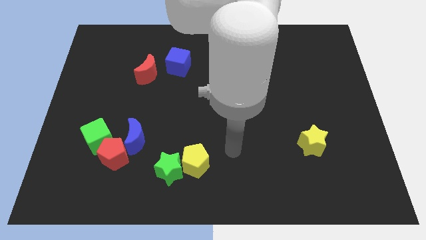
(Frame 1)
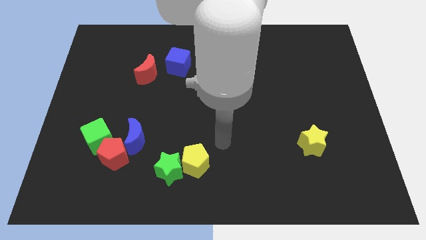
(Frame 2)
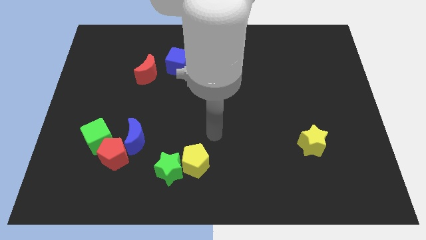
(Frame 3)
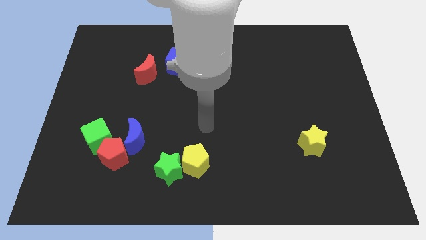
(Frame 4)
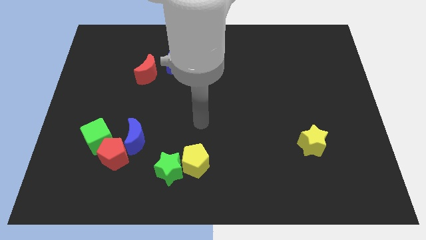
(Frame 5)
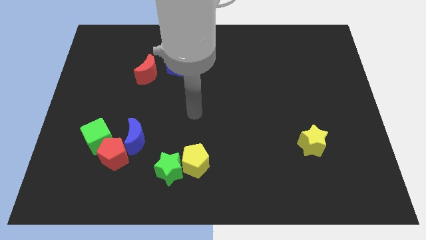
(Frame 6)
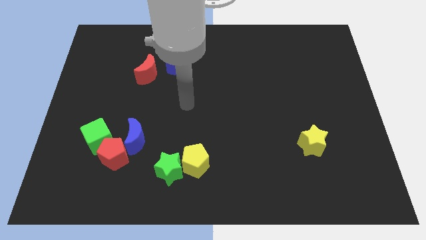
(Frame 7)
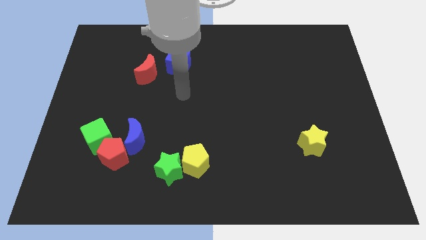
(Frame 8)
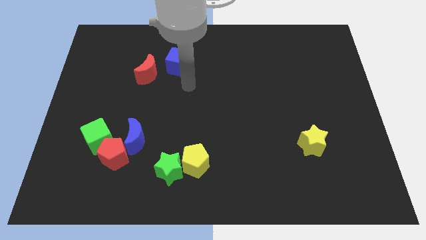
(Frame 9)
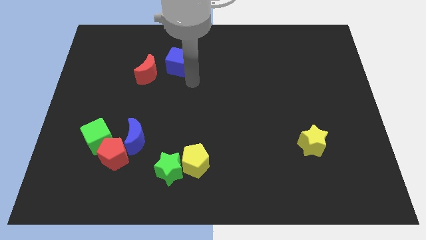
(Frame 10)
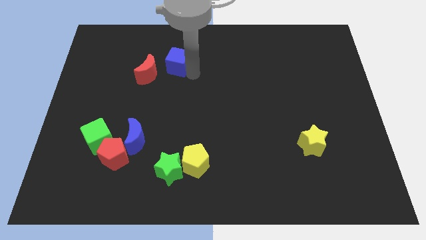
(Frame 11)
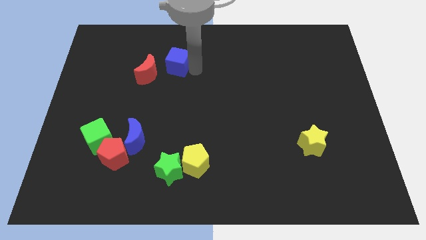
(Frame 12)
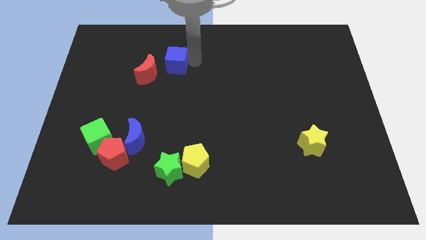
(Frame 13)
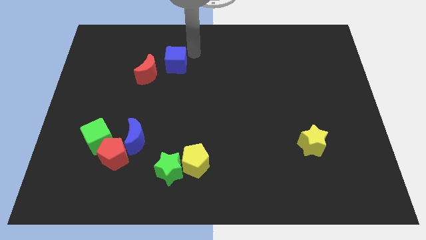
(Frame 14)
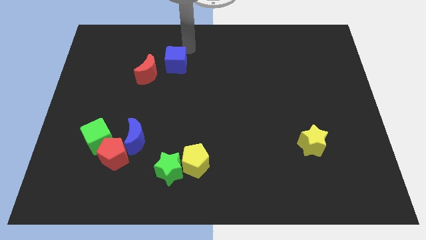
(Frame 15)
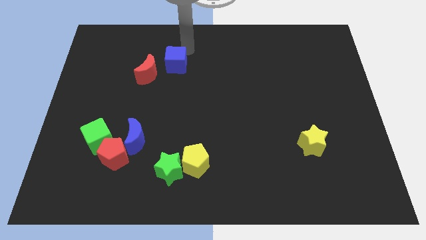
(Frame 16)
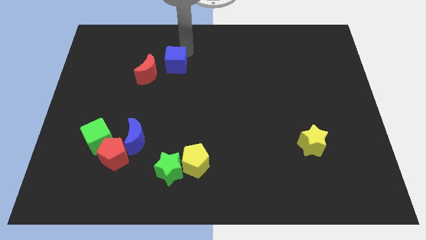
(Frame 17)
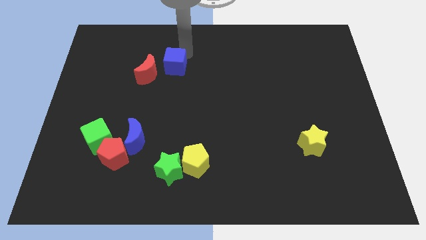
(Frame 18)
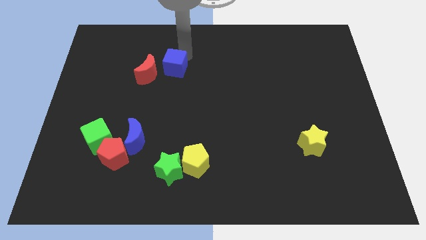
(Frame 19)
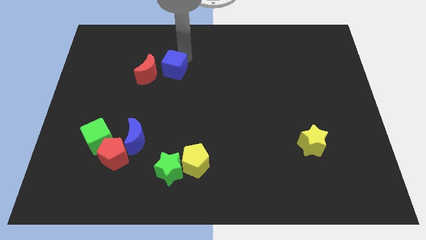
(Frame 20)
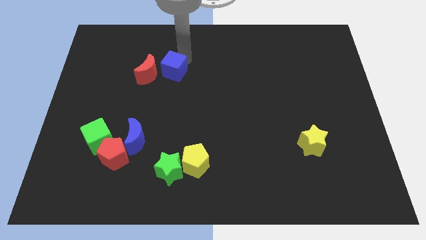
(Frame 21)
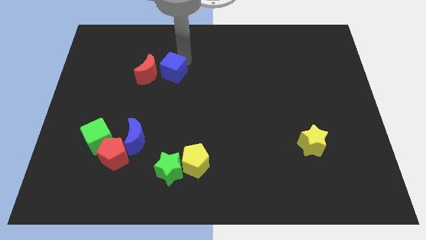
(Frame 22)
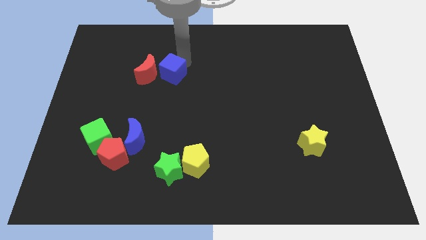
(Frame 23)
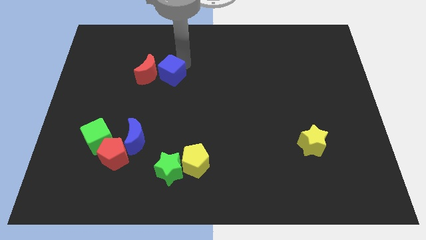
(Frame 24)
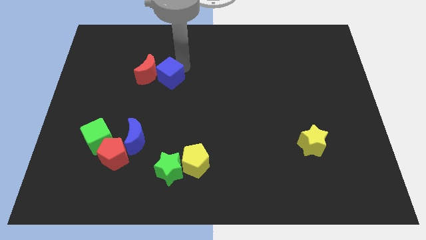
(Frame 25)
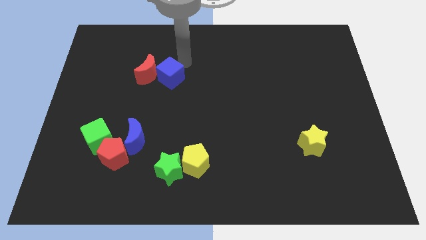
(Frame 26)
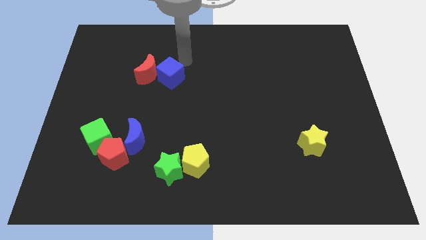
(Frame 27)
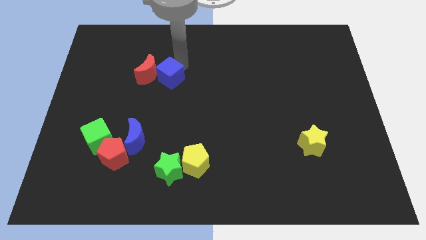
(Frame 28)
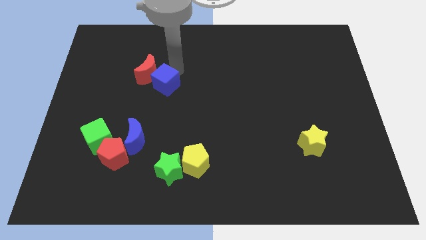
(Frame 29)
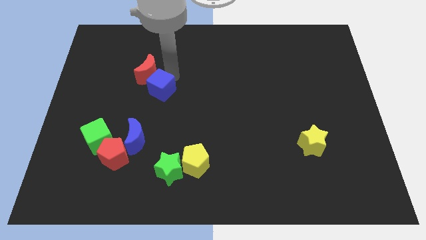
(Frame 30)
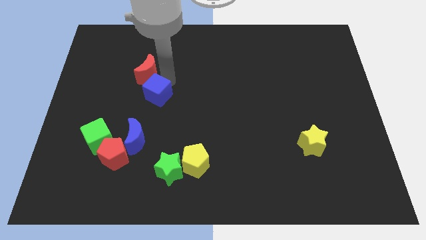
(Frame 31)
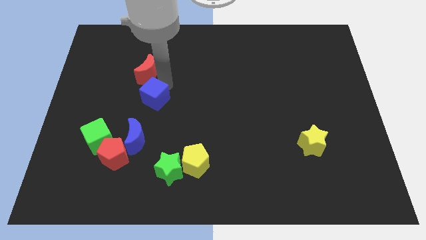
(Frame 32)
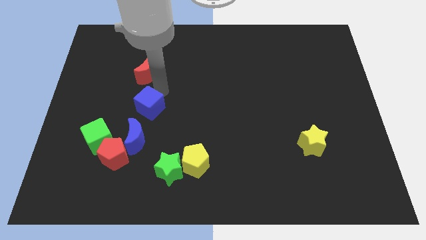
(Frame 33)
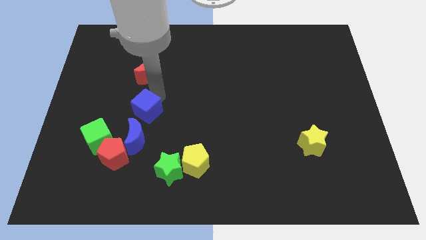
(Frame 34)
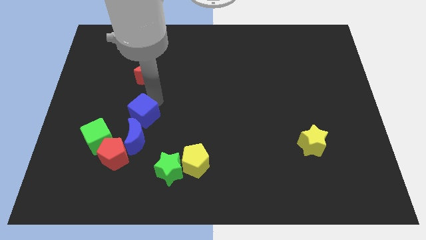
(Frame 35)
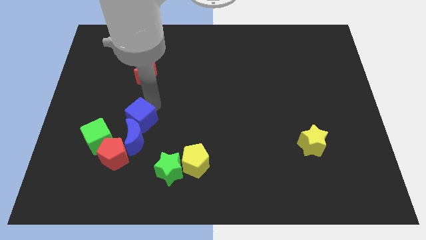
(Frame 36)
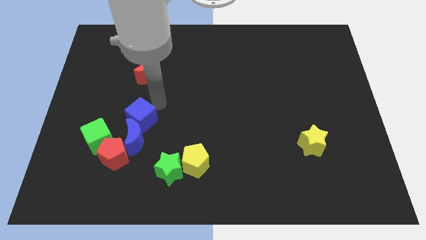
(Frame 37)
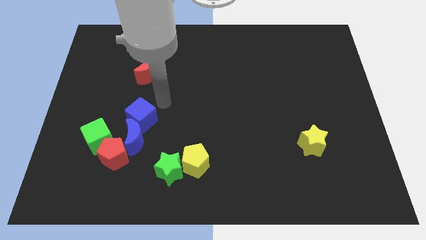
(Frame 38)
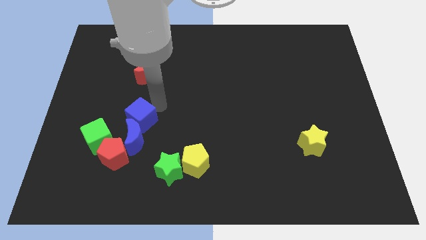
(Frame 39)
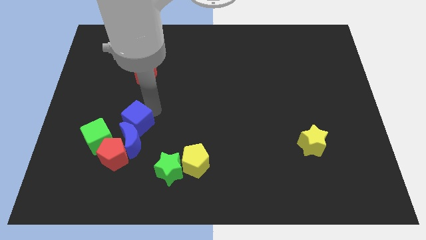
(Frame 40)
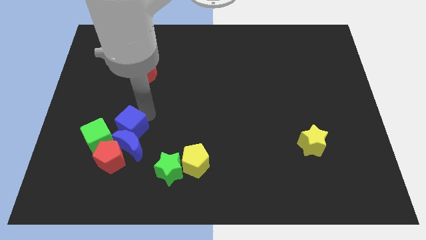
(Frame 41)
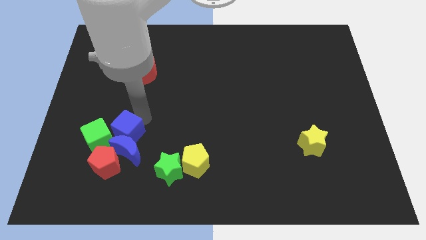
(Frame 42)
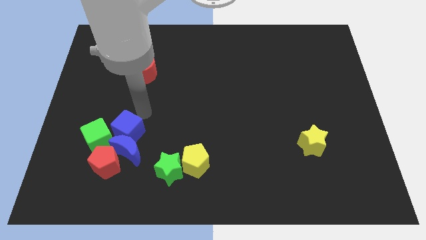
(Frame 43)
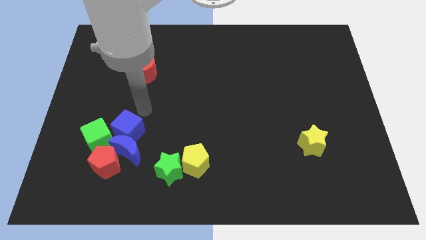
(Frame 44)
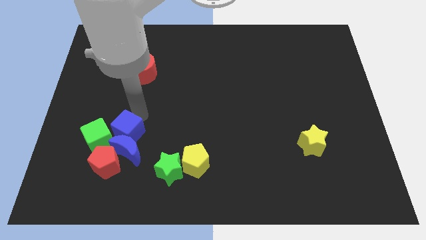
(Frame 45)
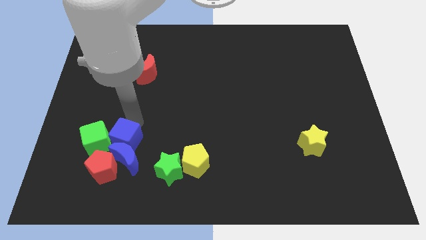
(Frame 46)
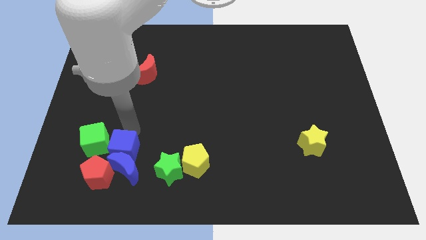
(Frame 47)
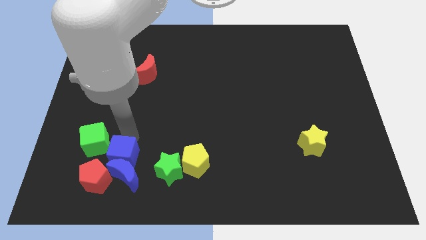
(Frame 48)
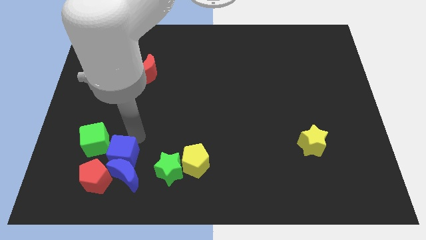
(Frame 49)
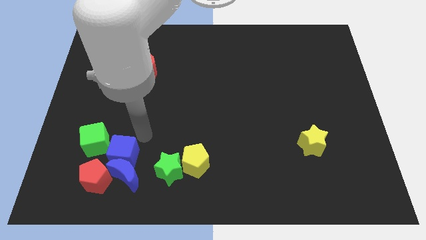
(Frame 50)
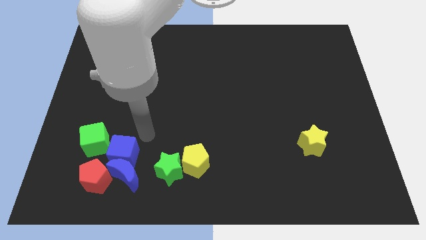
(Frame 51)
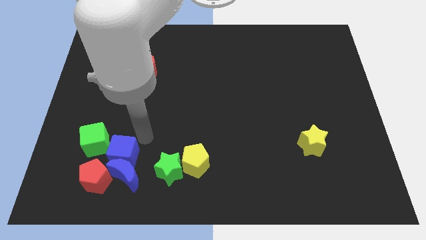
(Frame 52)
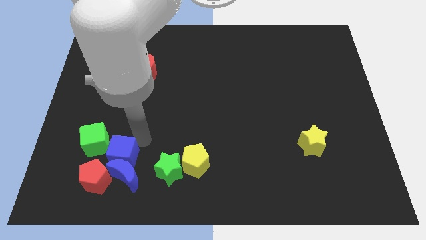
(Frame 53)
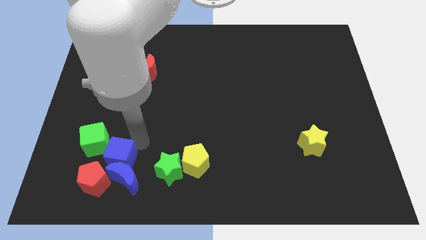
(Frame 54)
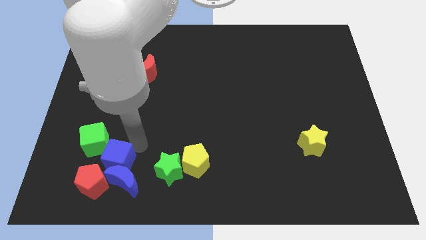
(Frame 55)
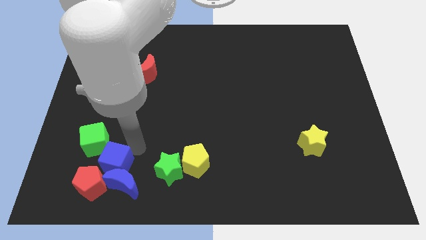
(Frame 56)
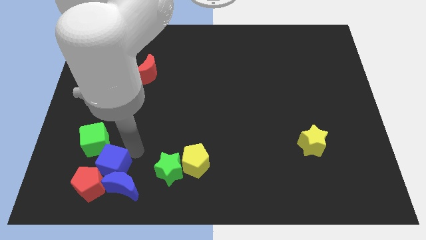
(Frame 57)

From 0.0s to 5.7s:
push the blue cube close to the red pentagon

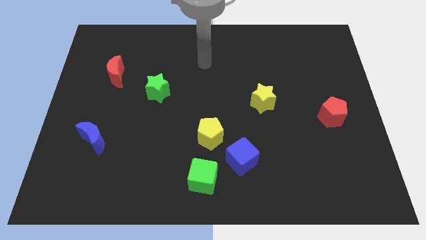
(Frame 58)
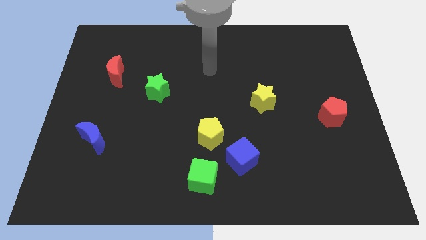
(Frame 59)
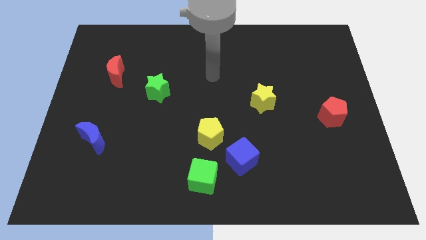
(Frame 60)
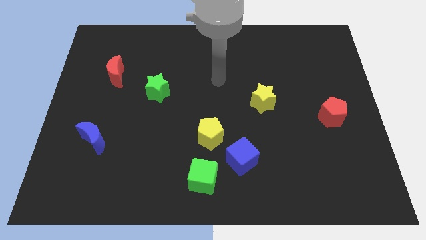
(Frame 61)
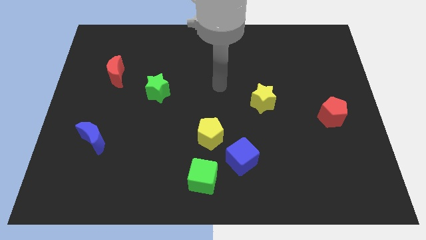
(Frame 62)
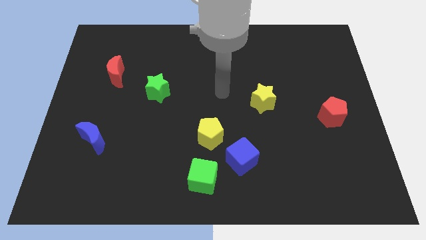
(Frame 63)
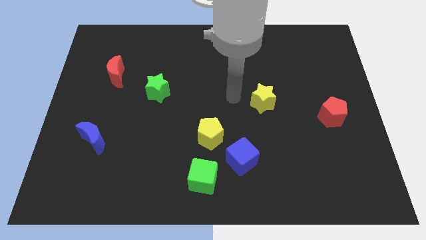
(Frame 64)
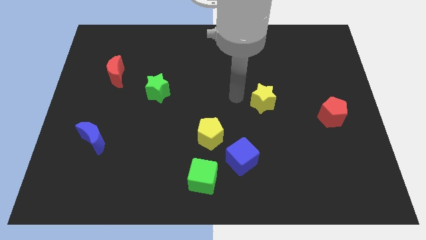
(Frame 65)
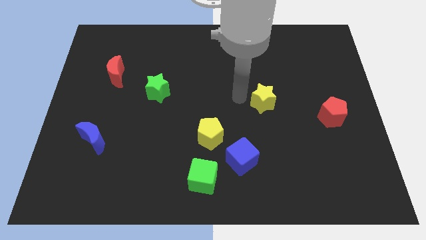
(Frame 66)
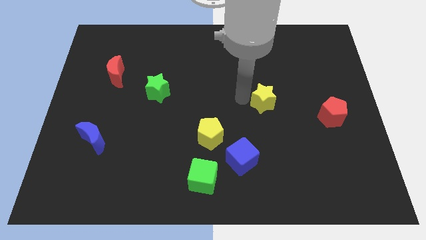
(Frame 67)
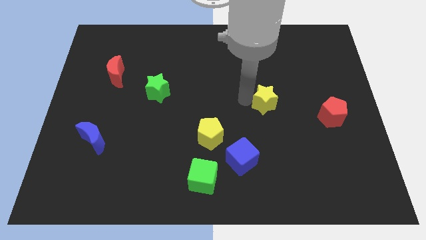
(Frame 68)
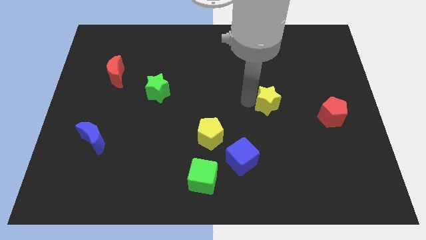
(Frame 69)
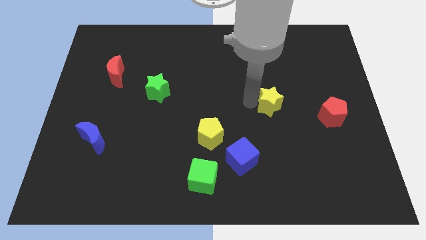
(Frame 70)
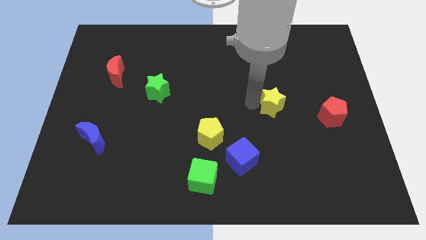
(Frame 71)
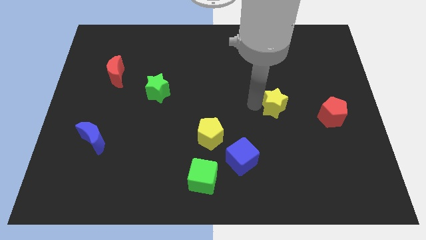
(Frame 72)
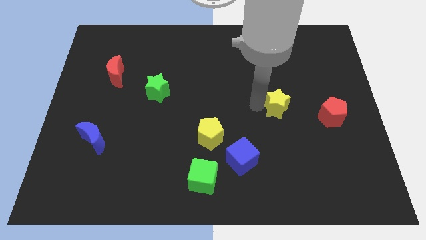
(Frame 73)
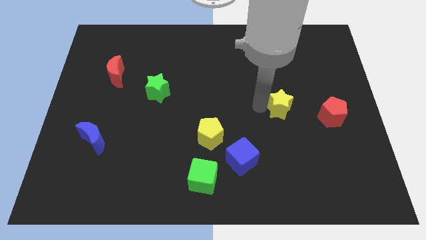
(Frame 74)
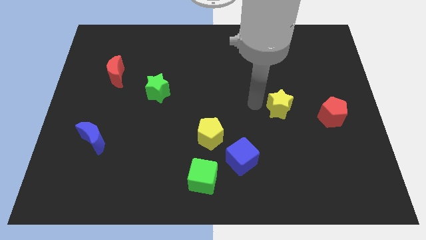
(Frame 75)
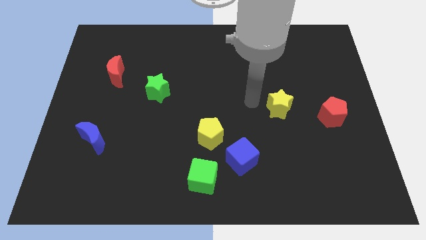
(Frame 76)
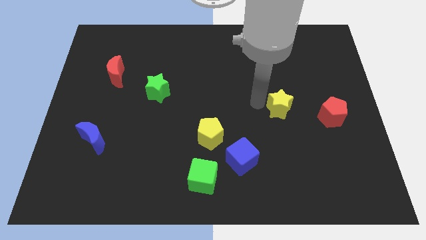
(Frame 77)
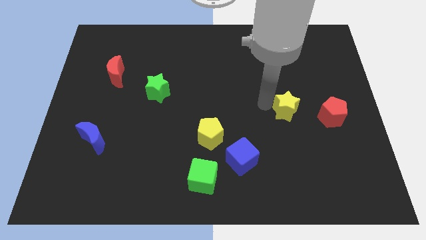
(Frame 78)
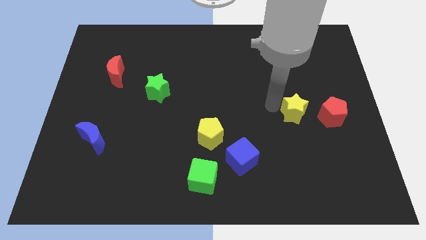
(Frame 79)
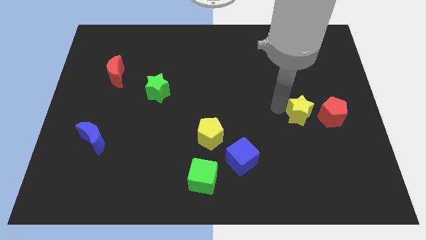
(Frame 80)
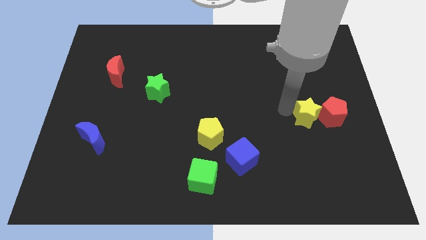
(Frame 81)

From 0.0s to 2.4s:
move the yellow star to the red pentagon
